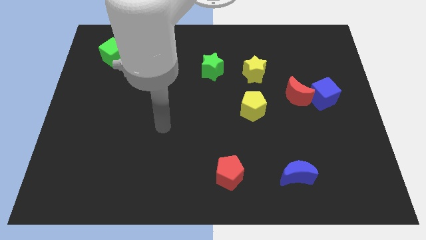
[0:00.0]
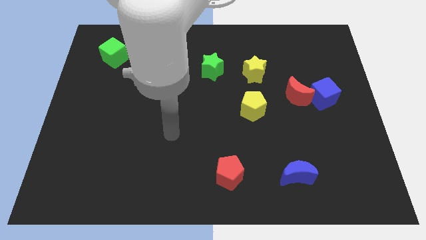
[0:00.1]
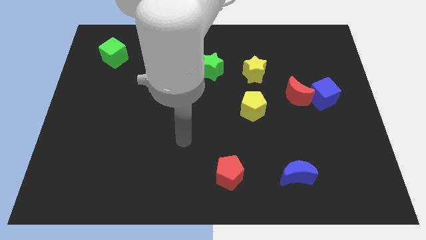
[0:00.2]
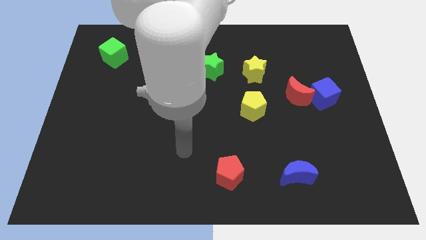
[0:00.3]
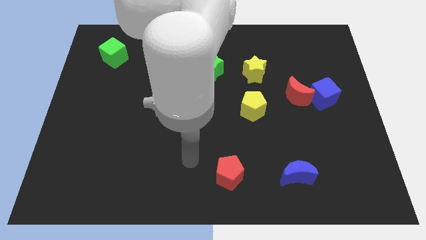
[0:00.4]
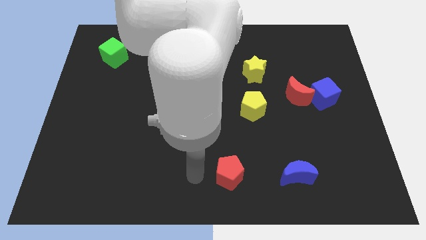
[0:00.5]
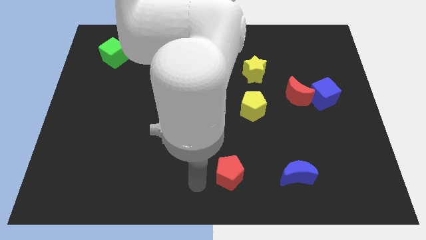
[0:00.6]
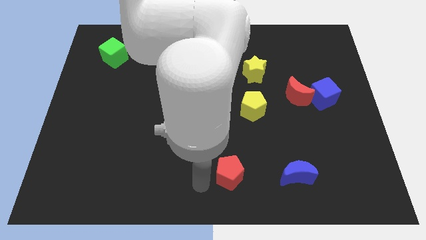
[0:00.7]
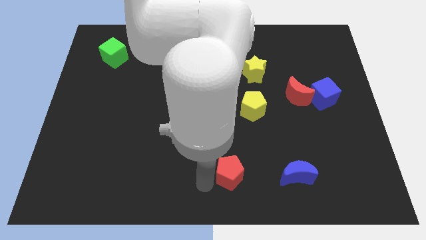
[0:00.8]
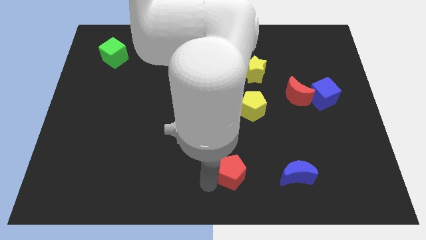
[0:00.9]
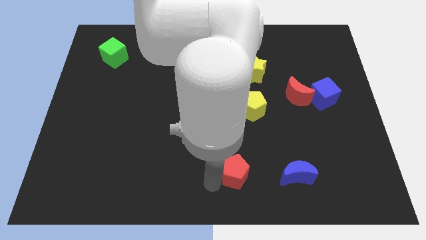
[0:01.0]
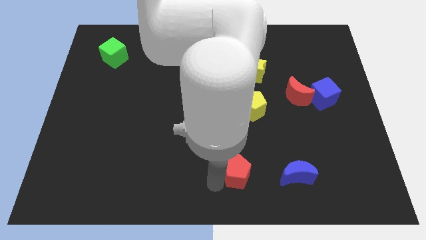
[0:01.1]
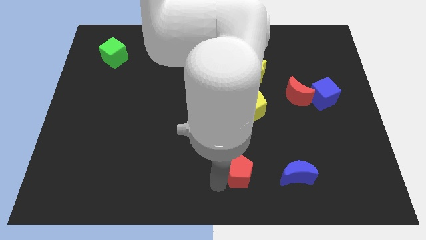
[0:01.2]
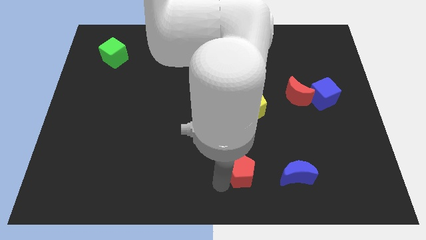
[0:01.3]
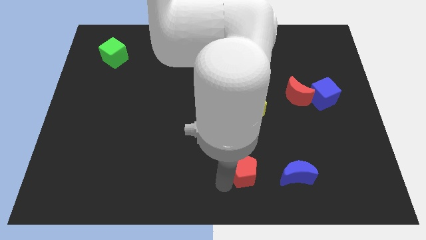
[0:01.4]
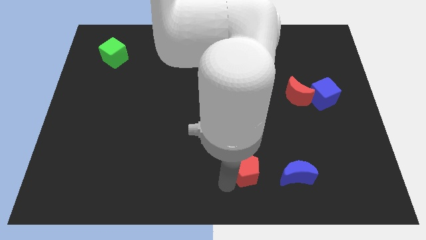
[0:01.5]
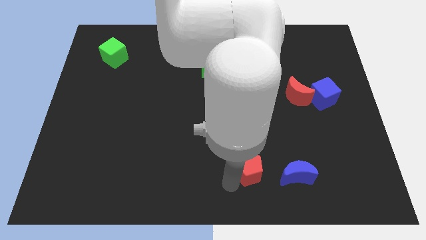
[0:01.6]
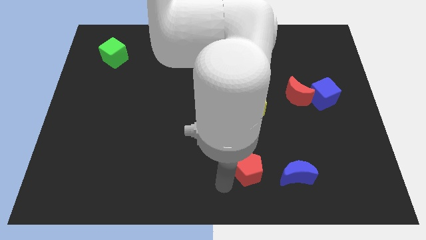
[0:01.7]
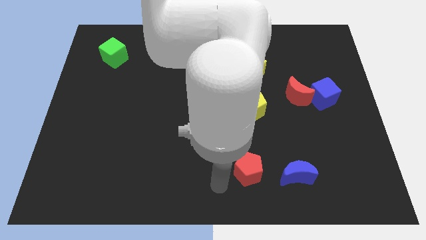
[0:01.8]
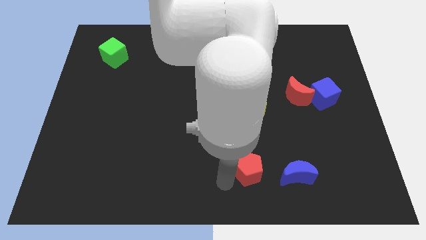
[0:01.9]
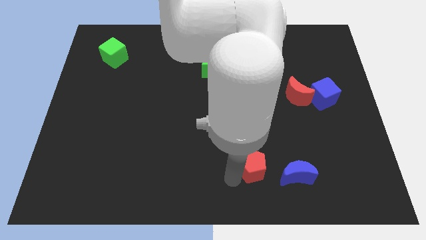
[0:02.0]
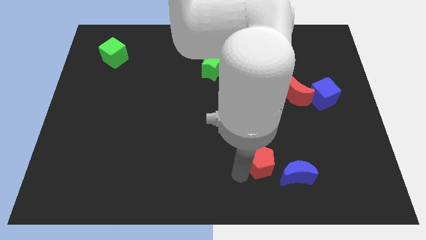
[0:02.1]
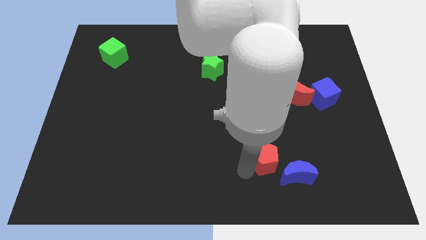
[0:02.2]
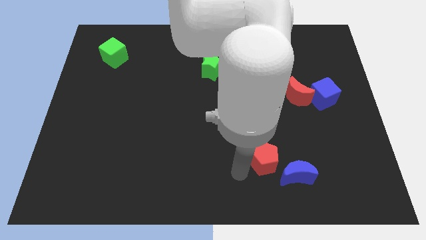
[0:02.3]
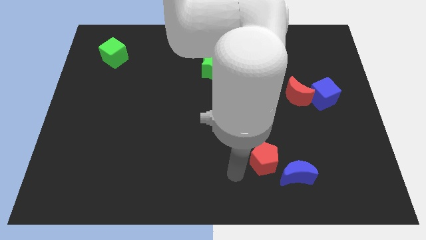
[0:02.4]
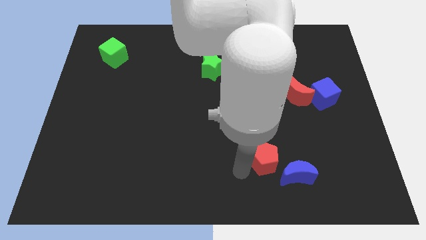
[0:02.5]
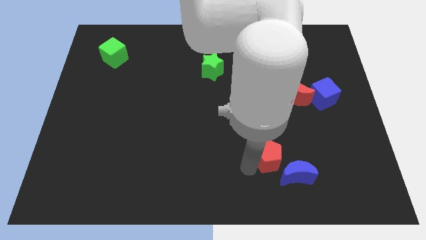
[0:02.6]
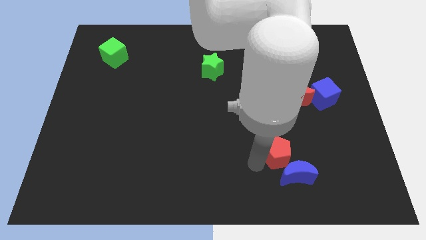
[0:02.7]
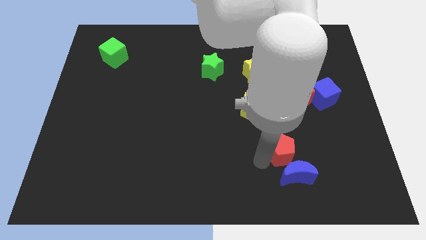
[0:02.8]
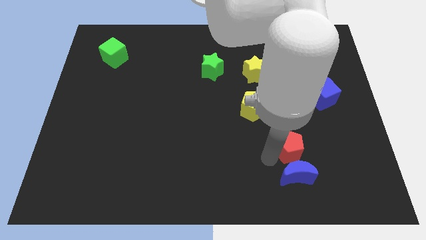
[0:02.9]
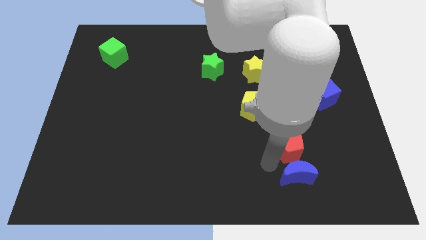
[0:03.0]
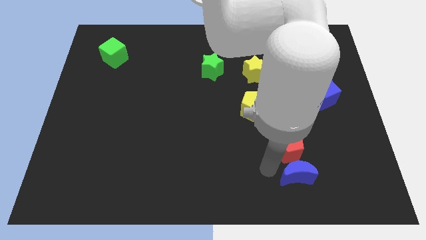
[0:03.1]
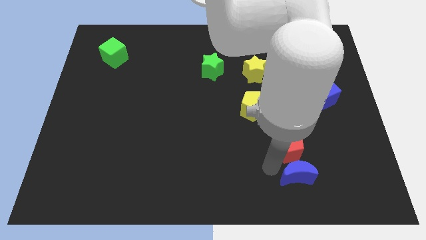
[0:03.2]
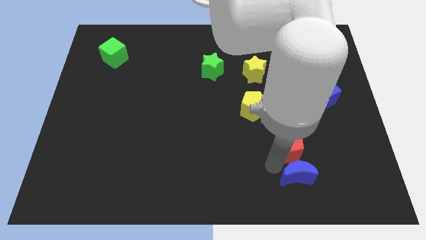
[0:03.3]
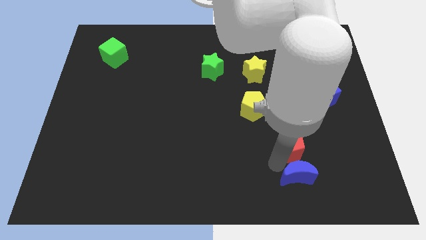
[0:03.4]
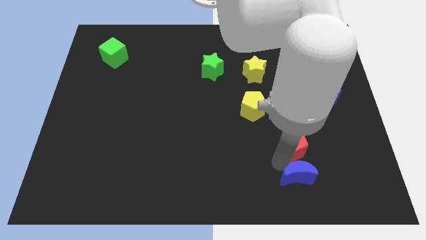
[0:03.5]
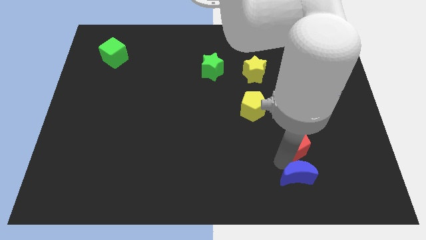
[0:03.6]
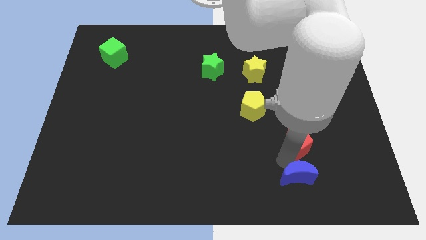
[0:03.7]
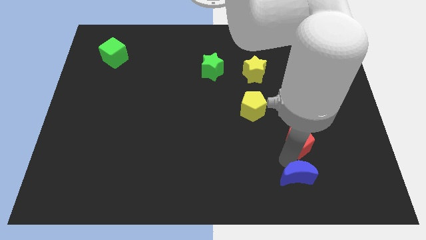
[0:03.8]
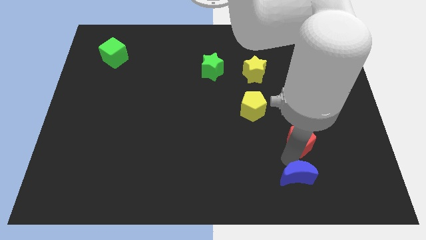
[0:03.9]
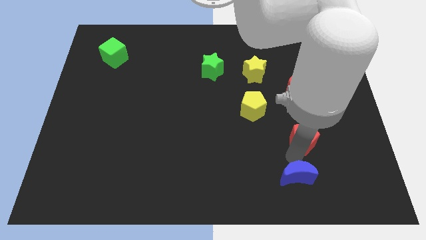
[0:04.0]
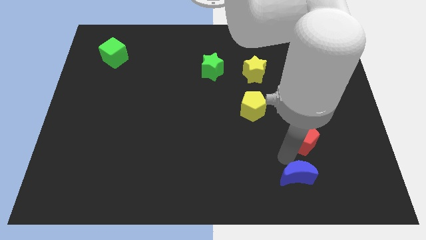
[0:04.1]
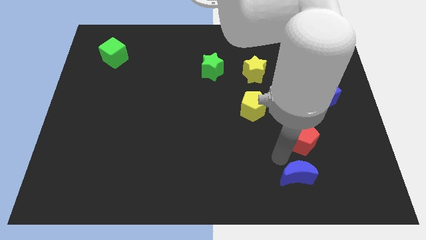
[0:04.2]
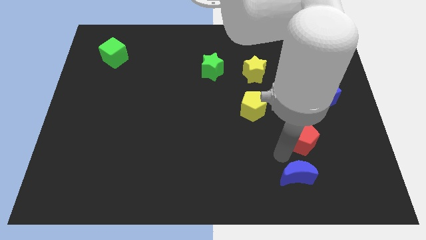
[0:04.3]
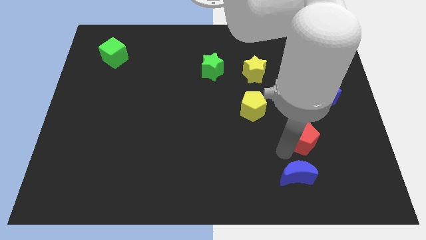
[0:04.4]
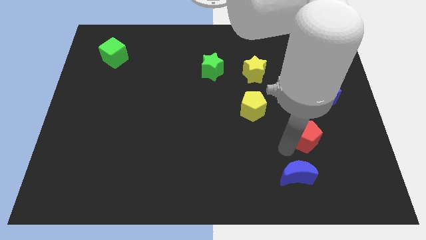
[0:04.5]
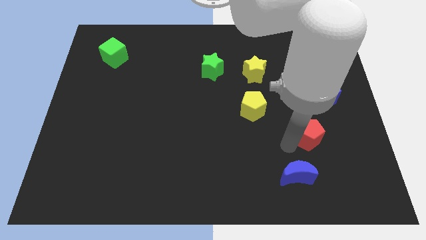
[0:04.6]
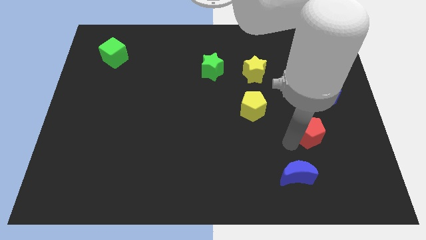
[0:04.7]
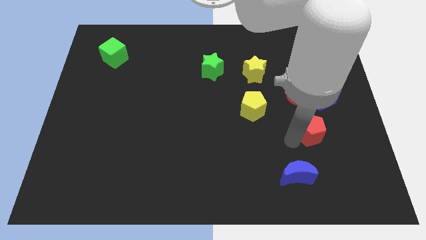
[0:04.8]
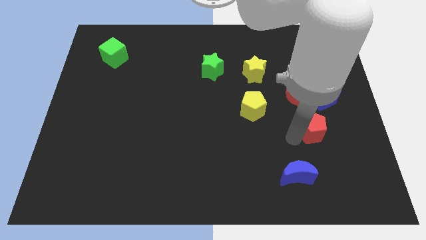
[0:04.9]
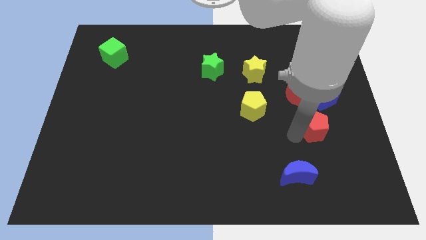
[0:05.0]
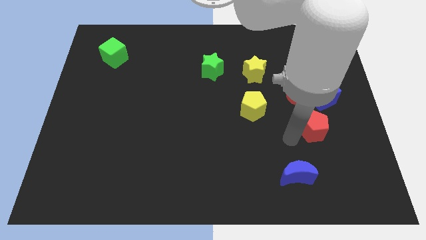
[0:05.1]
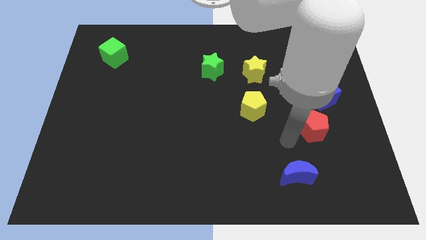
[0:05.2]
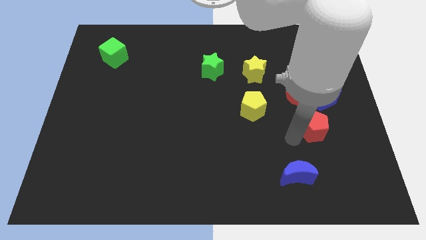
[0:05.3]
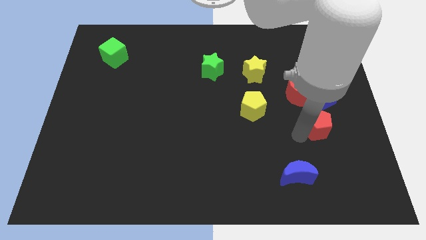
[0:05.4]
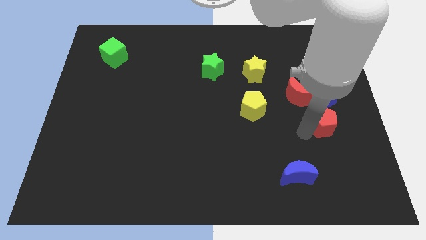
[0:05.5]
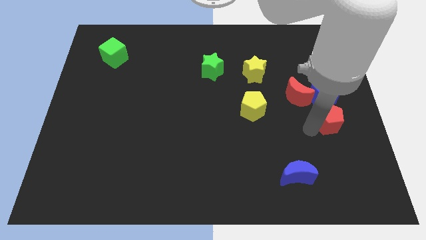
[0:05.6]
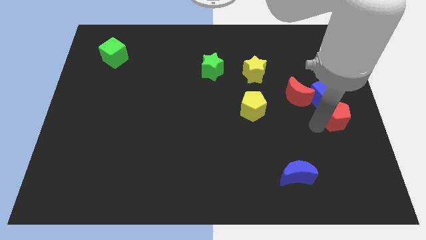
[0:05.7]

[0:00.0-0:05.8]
put the red pentagon to the right side of the board
